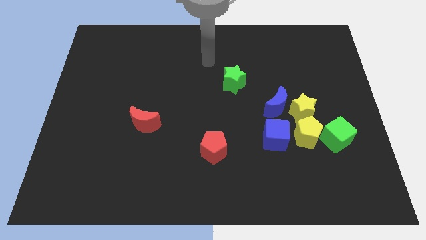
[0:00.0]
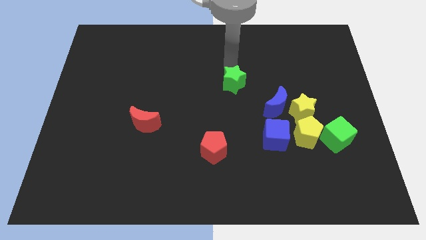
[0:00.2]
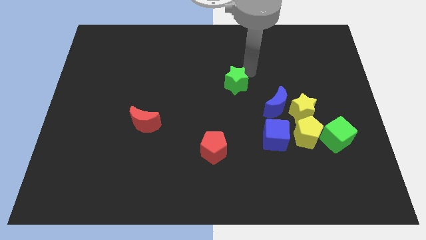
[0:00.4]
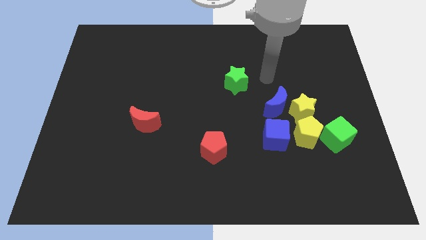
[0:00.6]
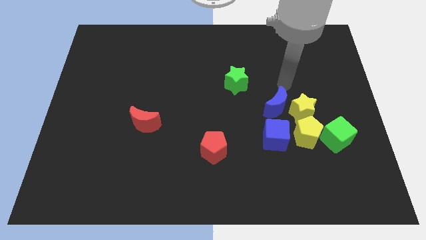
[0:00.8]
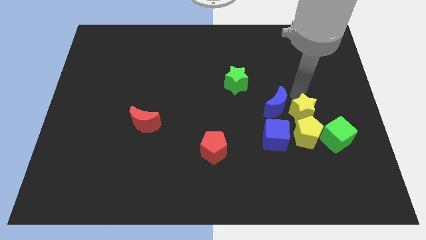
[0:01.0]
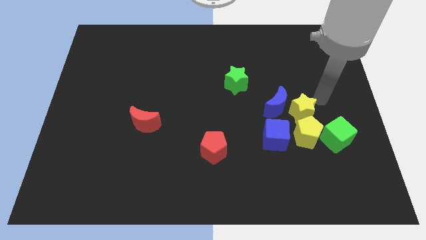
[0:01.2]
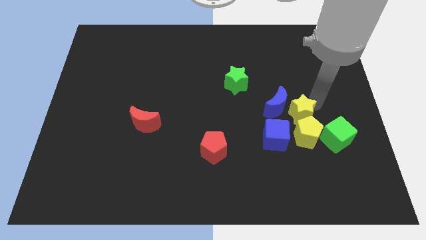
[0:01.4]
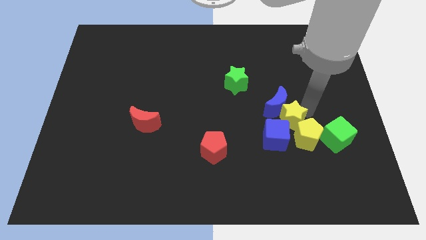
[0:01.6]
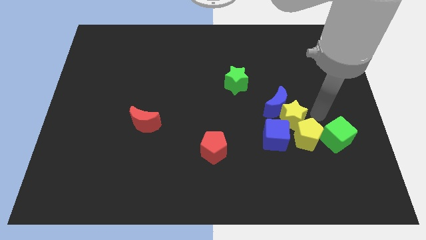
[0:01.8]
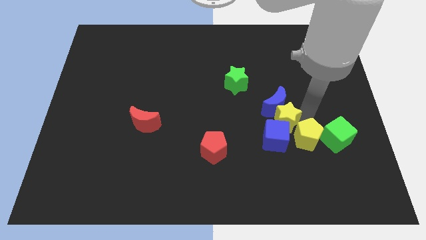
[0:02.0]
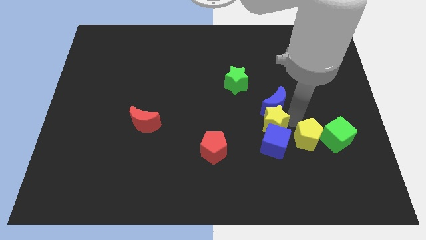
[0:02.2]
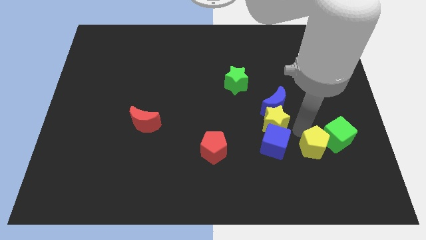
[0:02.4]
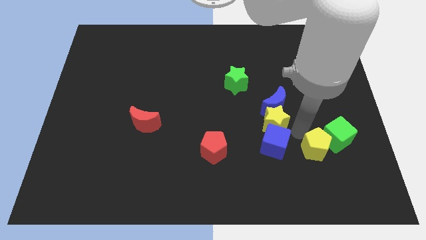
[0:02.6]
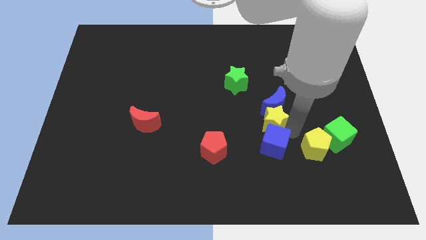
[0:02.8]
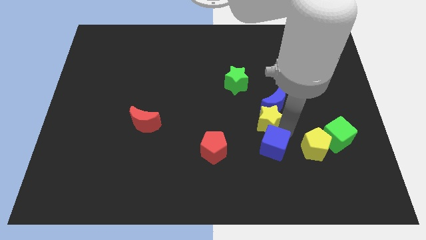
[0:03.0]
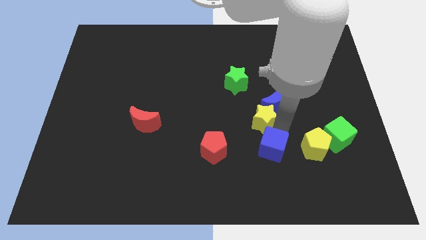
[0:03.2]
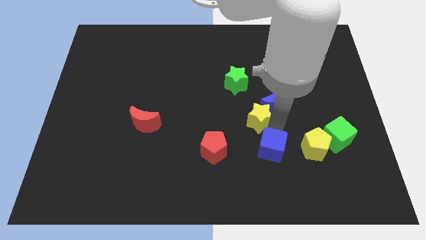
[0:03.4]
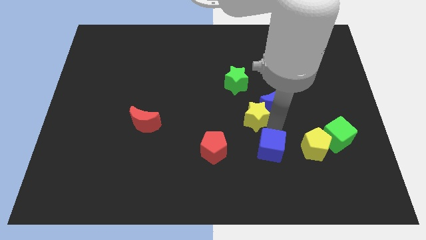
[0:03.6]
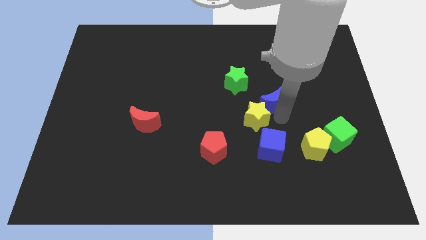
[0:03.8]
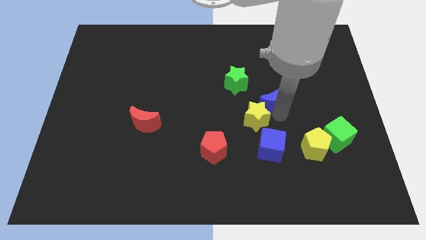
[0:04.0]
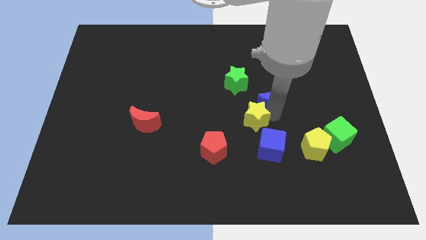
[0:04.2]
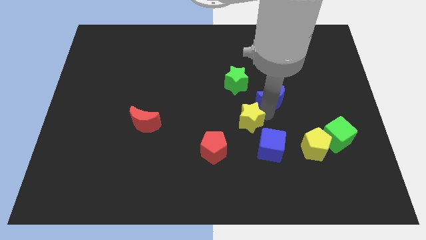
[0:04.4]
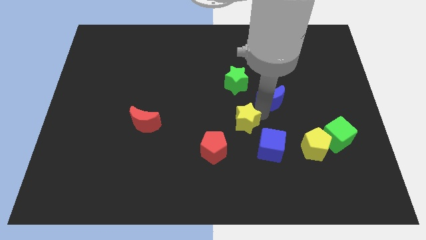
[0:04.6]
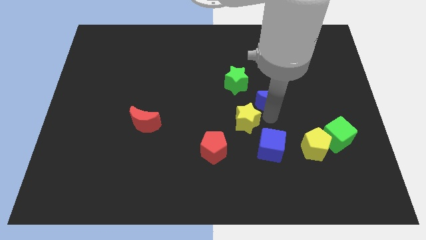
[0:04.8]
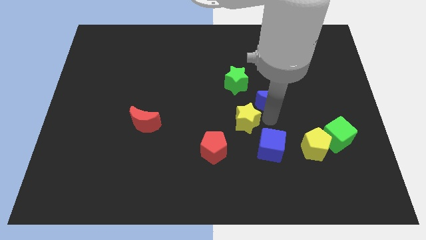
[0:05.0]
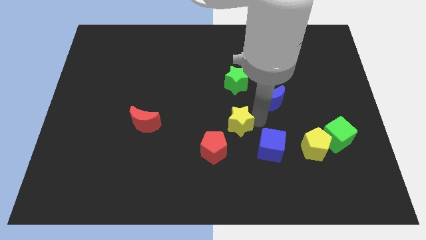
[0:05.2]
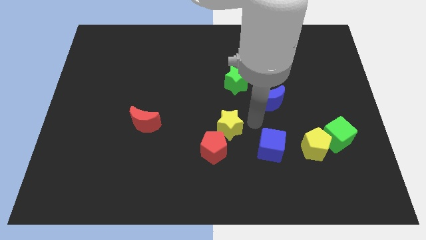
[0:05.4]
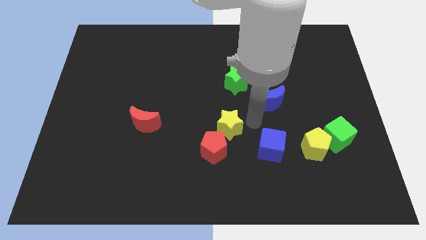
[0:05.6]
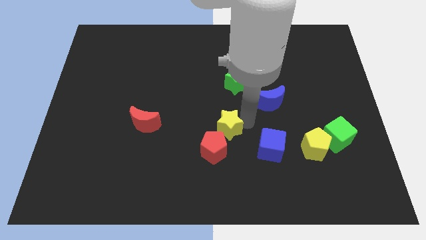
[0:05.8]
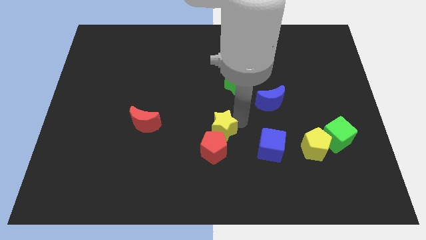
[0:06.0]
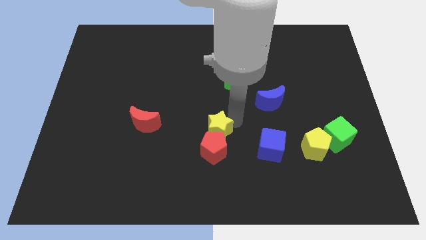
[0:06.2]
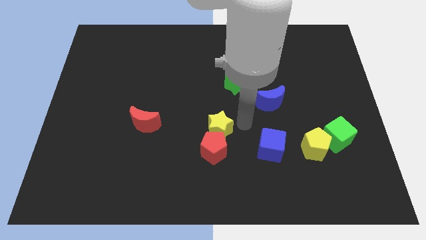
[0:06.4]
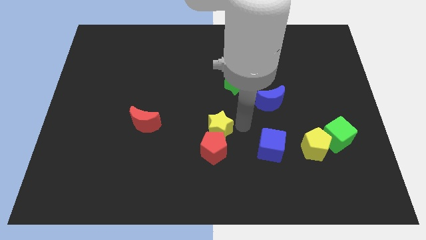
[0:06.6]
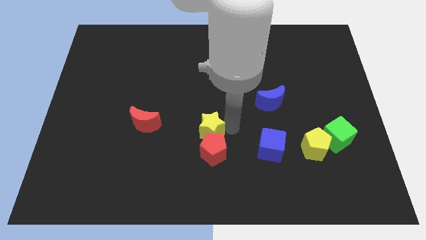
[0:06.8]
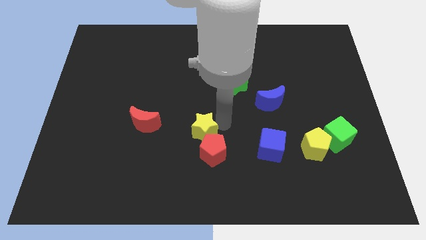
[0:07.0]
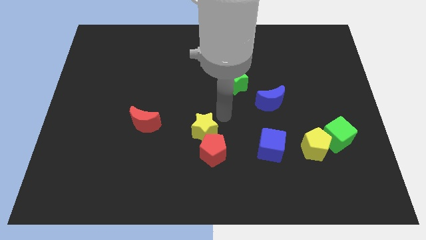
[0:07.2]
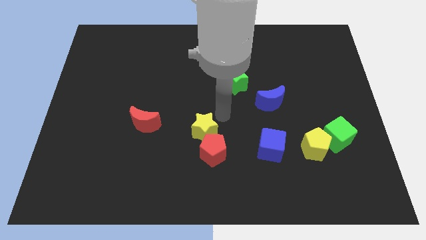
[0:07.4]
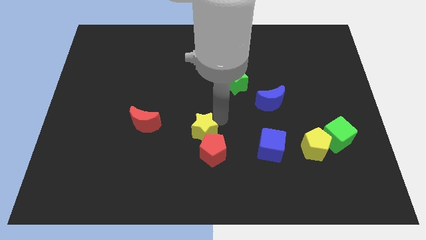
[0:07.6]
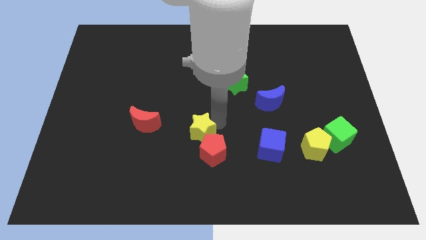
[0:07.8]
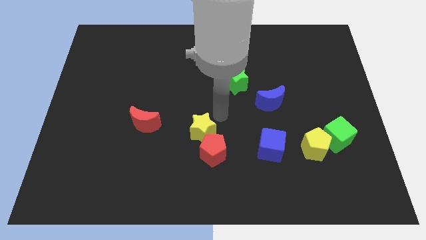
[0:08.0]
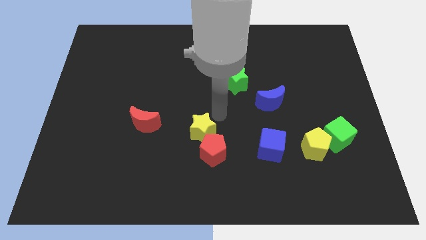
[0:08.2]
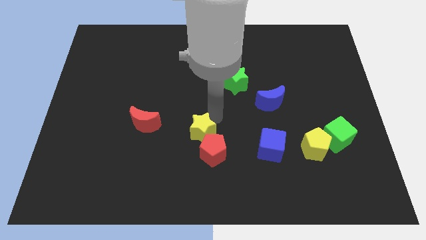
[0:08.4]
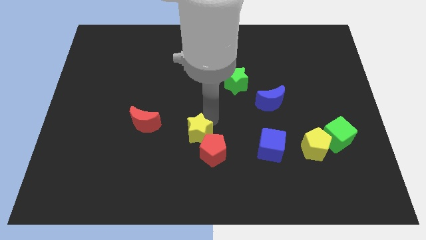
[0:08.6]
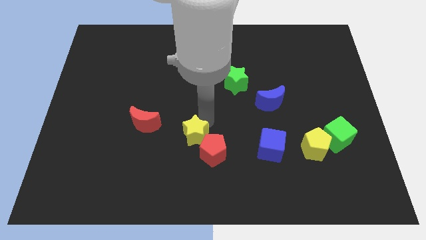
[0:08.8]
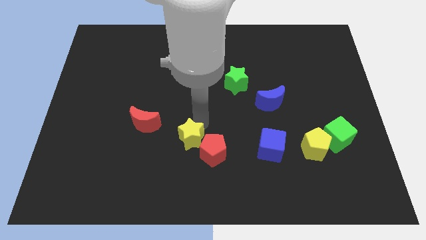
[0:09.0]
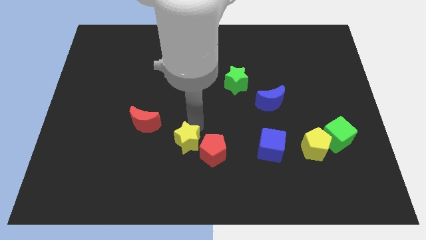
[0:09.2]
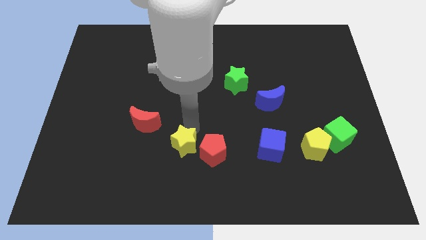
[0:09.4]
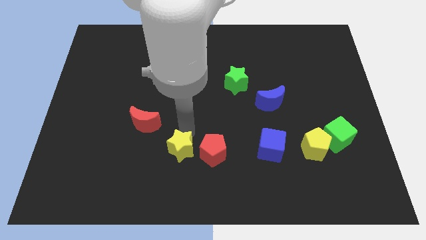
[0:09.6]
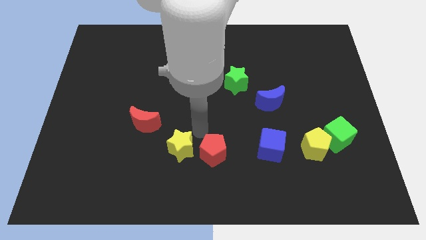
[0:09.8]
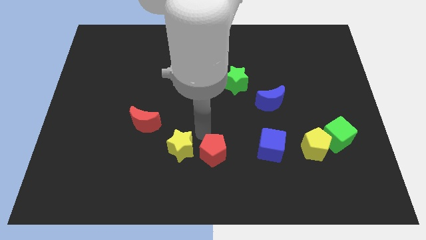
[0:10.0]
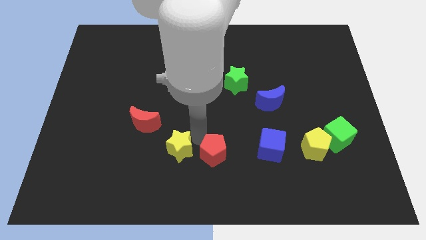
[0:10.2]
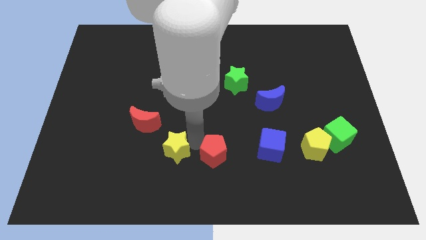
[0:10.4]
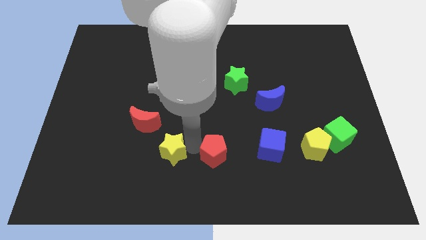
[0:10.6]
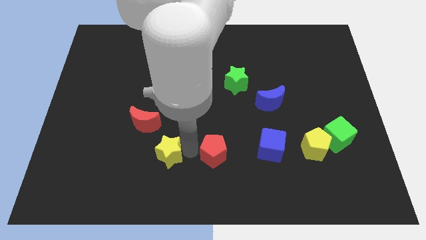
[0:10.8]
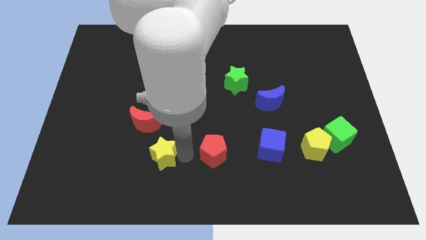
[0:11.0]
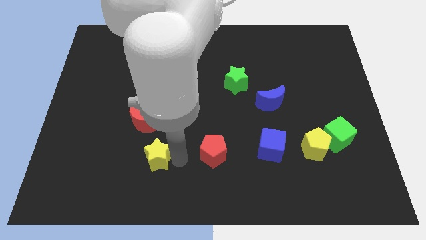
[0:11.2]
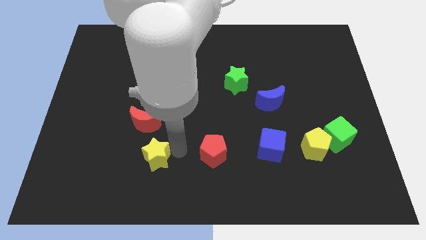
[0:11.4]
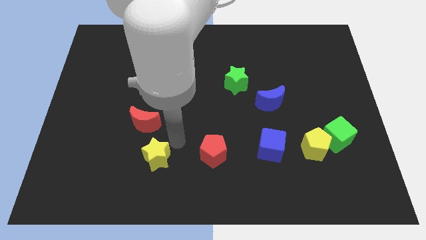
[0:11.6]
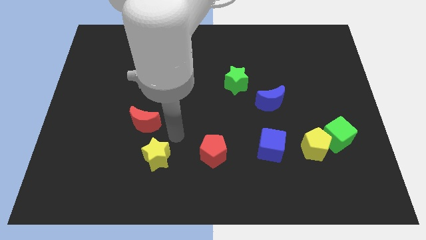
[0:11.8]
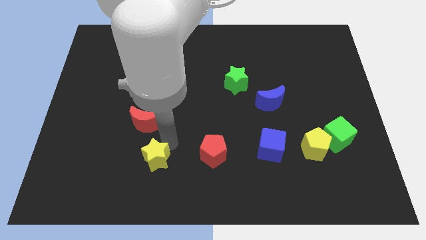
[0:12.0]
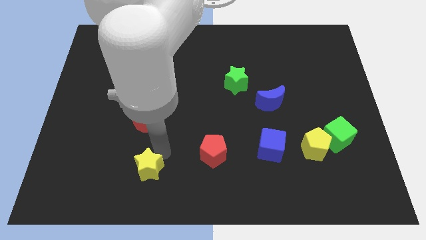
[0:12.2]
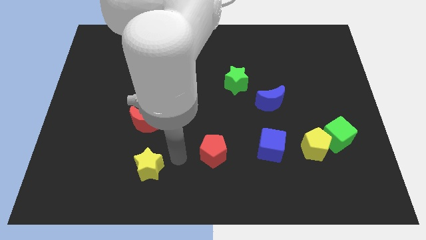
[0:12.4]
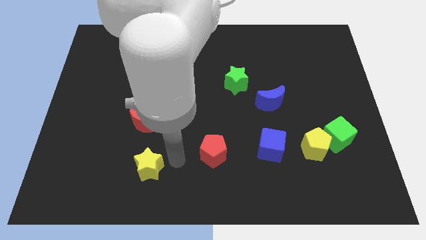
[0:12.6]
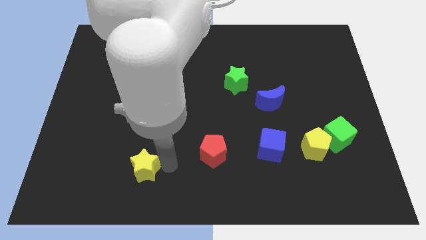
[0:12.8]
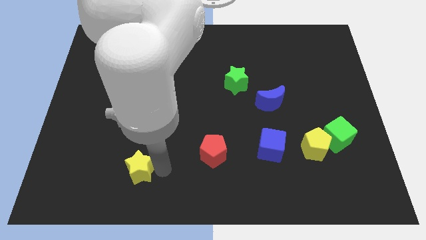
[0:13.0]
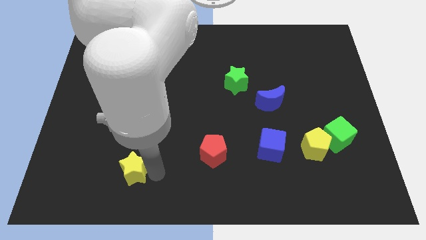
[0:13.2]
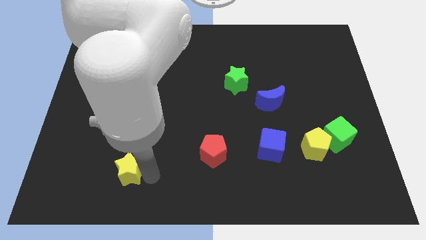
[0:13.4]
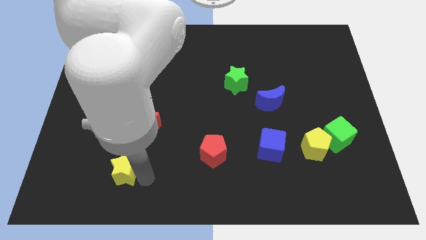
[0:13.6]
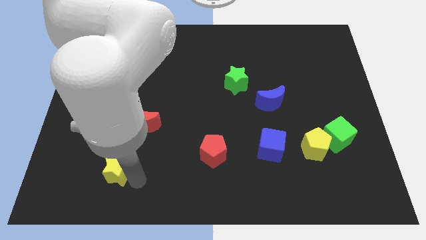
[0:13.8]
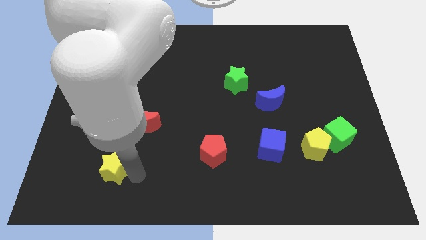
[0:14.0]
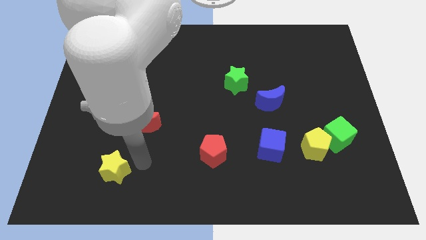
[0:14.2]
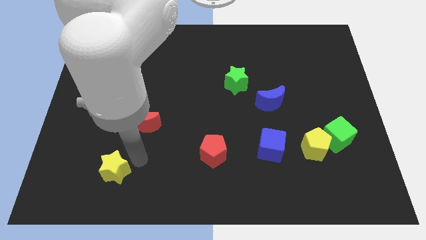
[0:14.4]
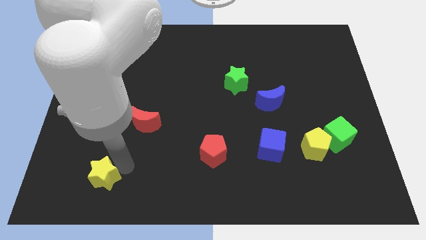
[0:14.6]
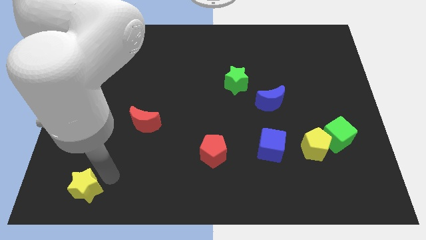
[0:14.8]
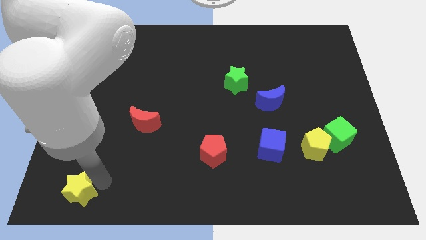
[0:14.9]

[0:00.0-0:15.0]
move the yellow star to the lower left corner
